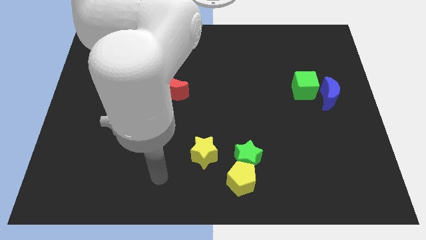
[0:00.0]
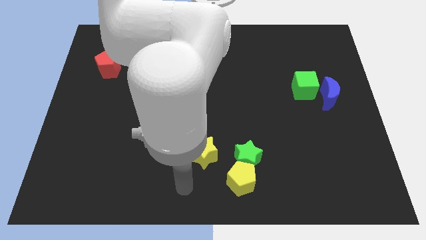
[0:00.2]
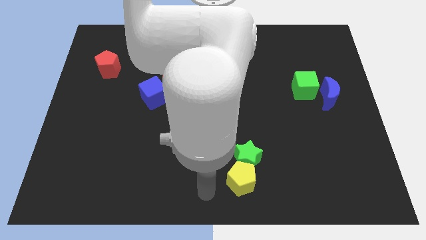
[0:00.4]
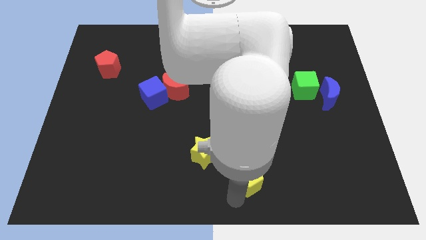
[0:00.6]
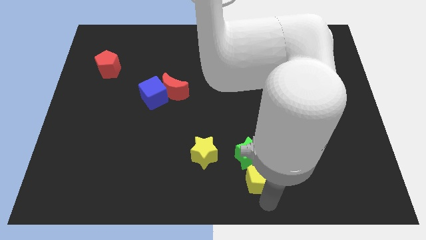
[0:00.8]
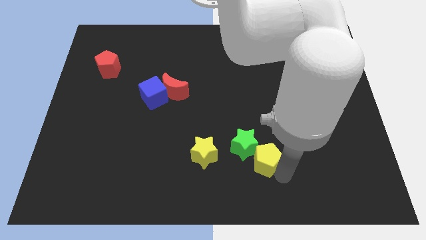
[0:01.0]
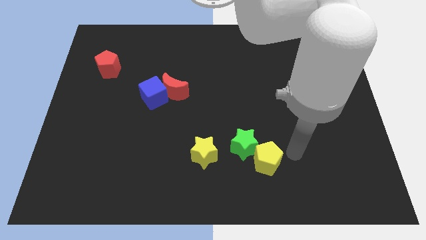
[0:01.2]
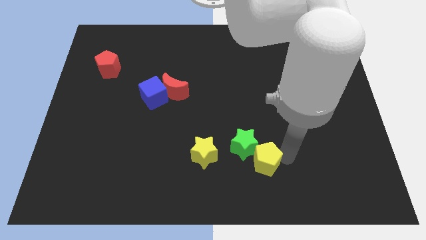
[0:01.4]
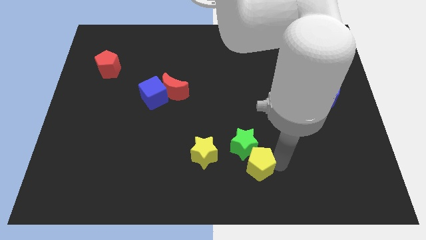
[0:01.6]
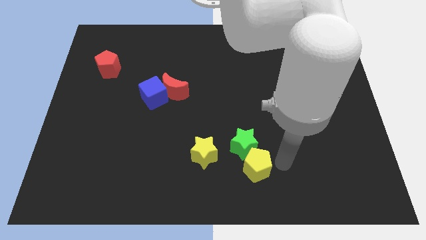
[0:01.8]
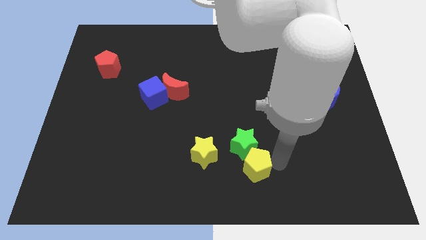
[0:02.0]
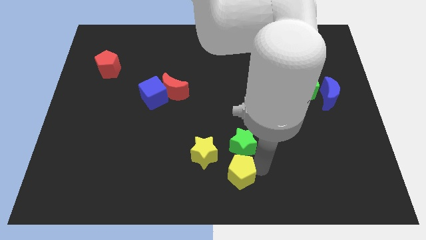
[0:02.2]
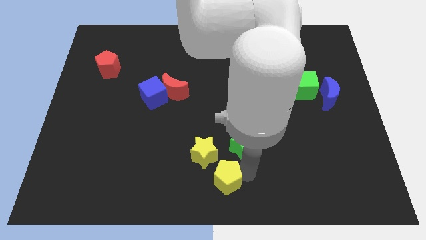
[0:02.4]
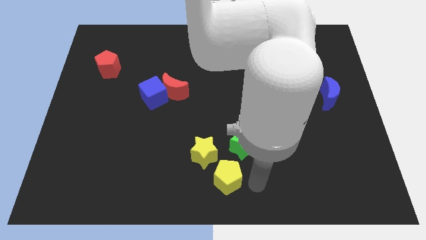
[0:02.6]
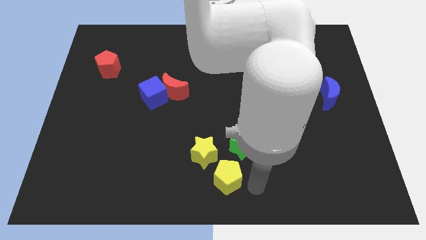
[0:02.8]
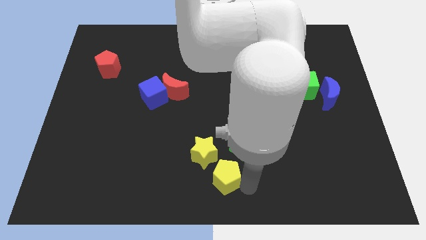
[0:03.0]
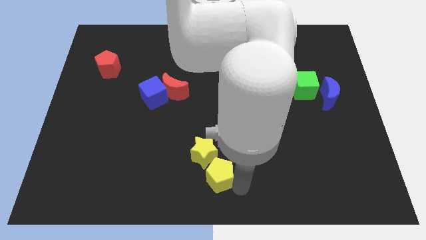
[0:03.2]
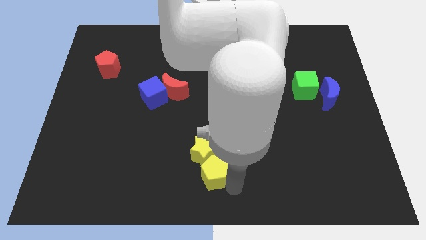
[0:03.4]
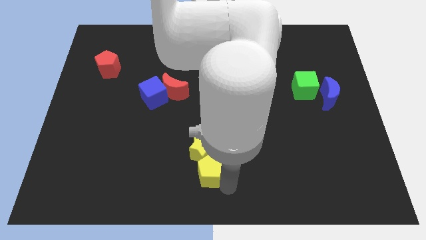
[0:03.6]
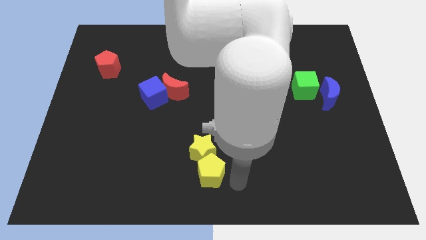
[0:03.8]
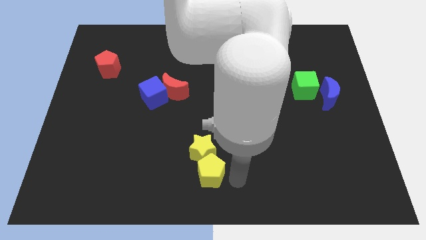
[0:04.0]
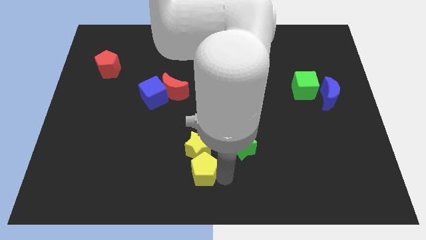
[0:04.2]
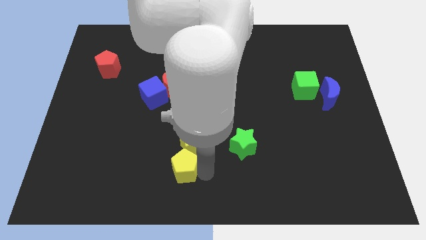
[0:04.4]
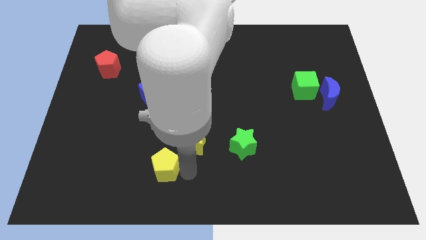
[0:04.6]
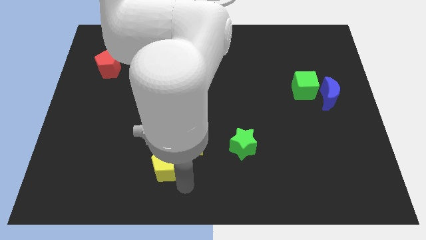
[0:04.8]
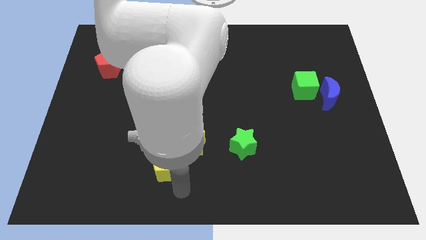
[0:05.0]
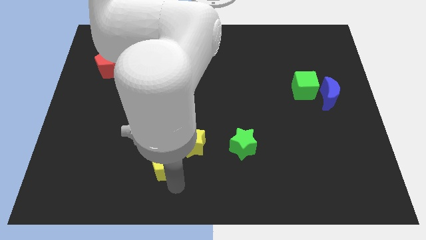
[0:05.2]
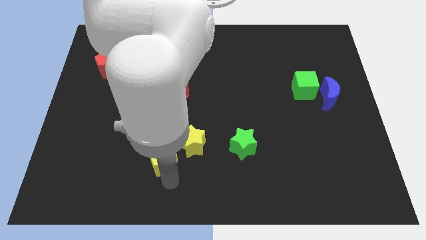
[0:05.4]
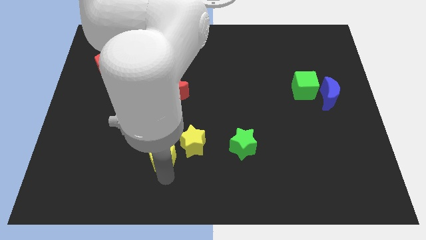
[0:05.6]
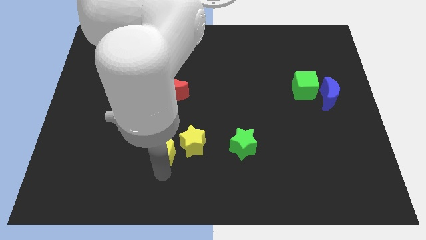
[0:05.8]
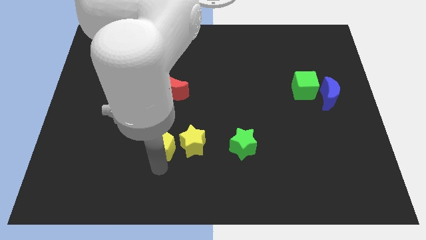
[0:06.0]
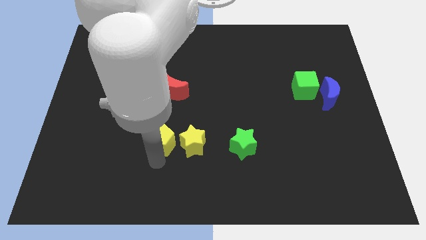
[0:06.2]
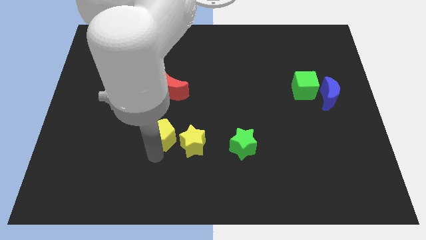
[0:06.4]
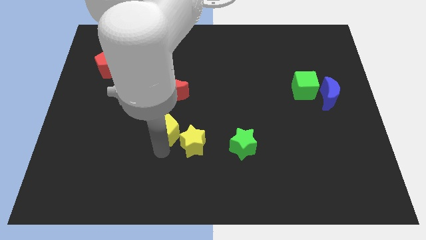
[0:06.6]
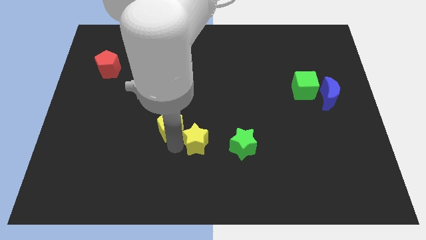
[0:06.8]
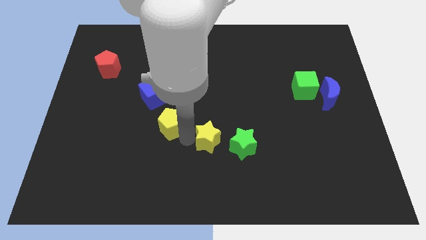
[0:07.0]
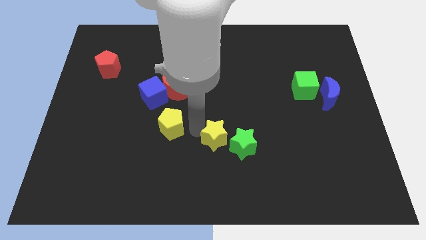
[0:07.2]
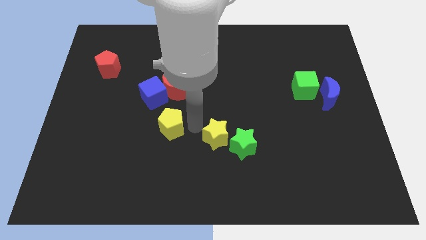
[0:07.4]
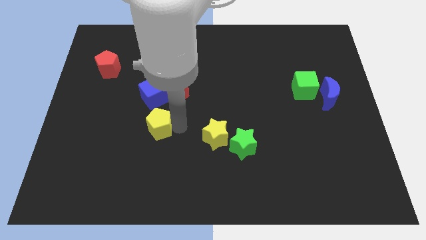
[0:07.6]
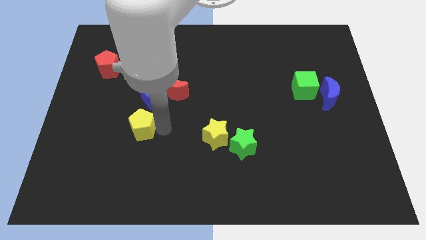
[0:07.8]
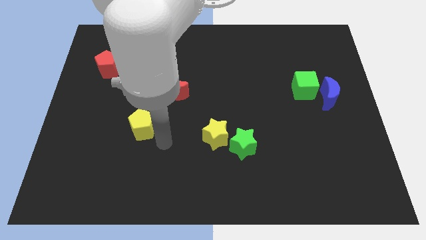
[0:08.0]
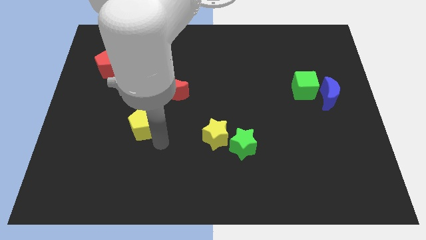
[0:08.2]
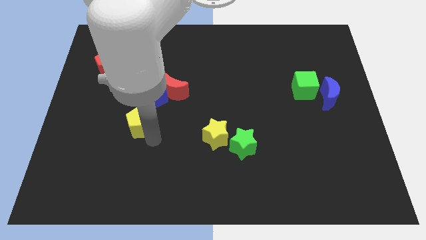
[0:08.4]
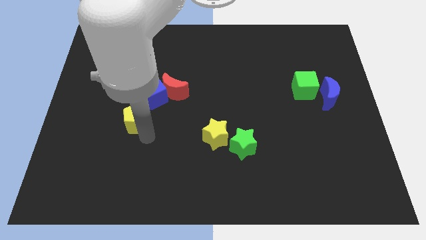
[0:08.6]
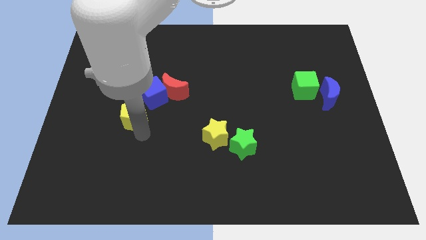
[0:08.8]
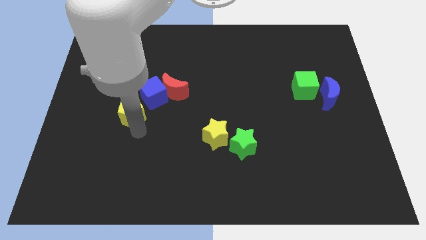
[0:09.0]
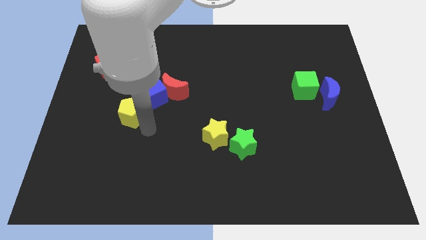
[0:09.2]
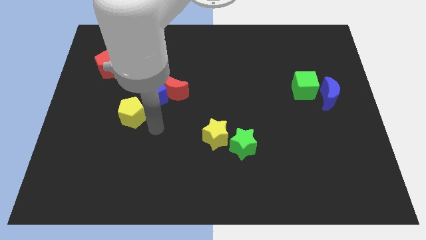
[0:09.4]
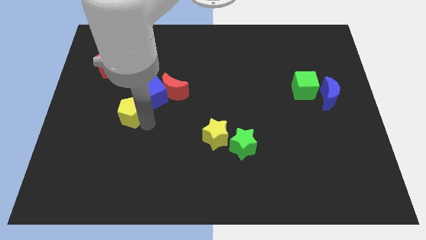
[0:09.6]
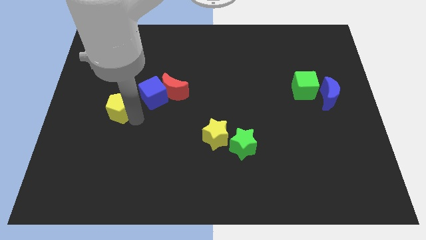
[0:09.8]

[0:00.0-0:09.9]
move the yellow pentagon to the left side of the blue cube

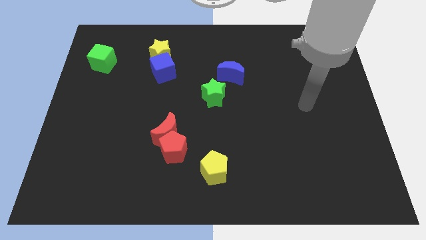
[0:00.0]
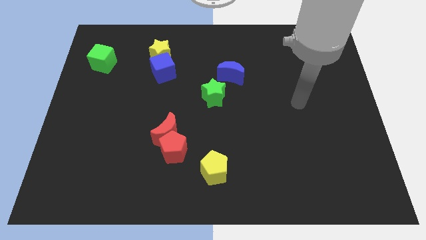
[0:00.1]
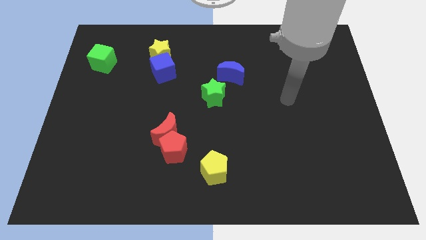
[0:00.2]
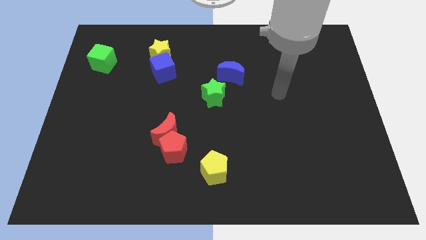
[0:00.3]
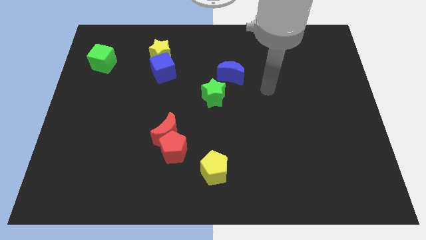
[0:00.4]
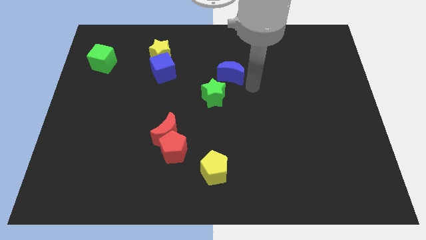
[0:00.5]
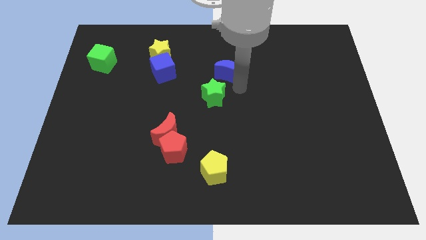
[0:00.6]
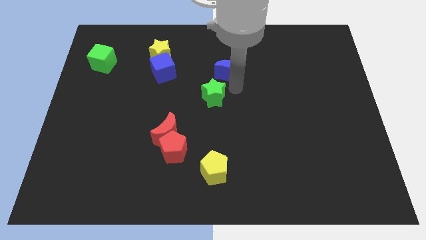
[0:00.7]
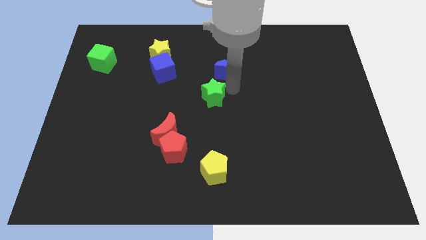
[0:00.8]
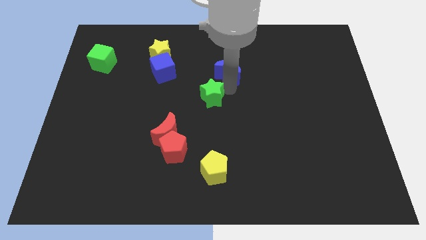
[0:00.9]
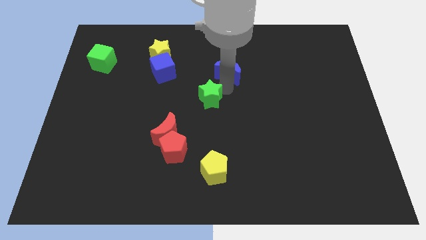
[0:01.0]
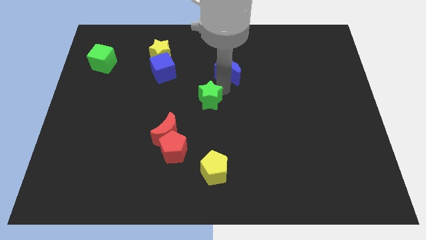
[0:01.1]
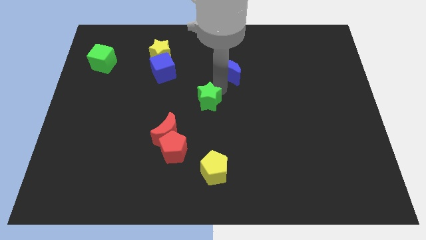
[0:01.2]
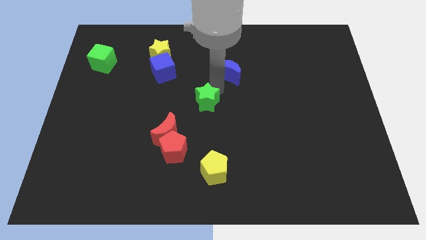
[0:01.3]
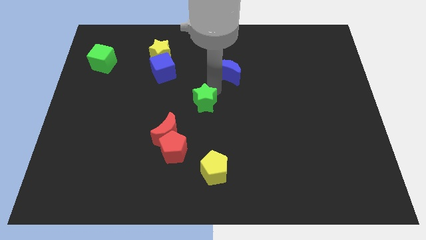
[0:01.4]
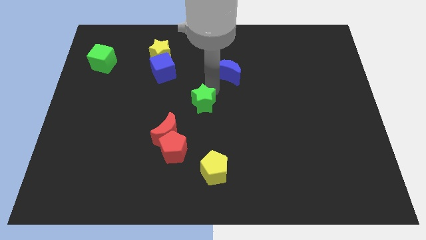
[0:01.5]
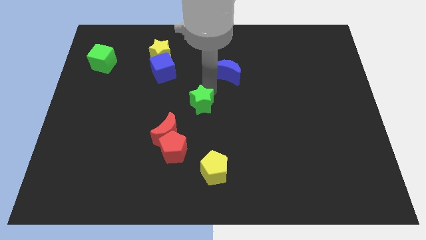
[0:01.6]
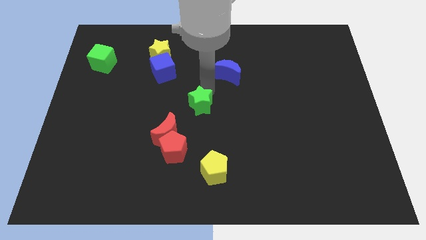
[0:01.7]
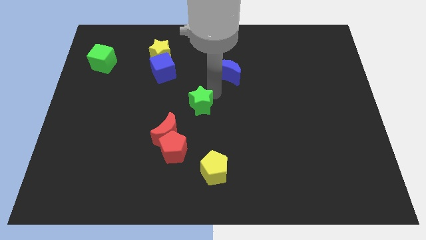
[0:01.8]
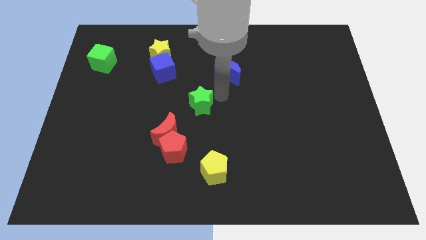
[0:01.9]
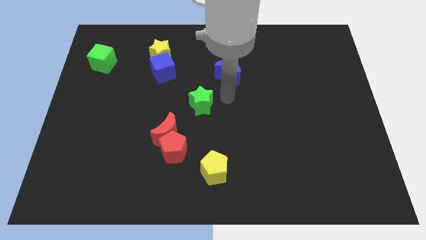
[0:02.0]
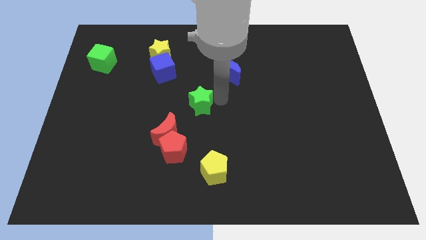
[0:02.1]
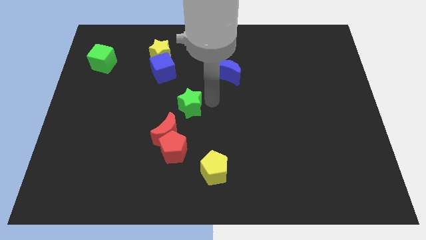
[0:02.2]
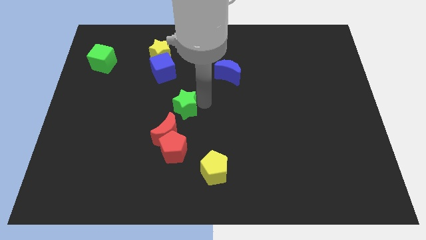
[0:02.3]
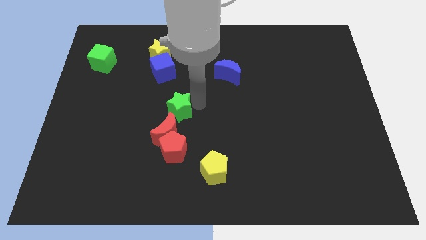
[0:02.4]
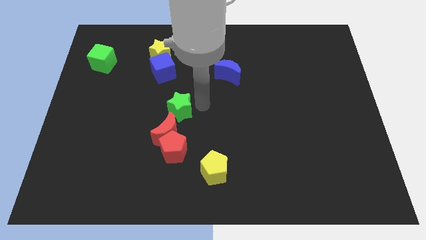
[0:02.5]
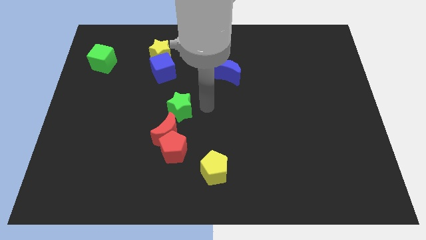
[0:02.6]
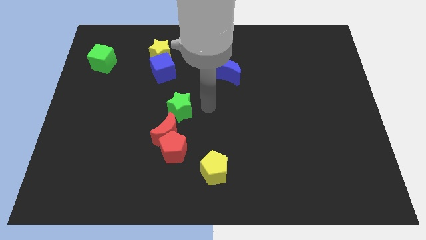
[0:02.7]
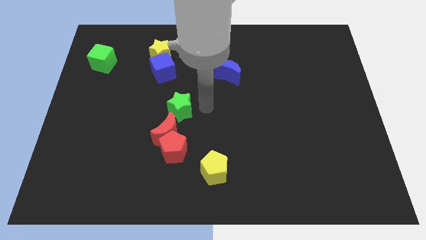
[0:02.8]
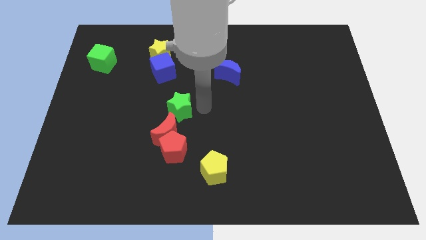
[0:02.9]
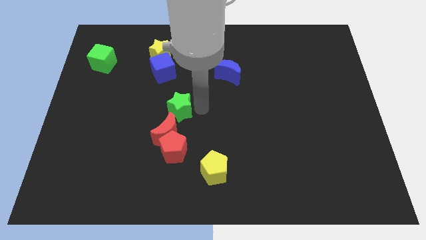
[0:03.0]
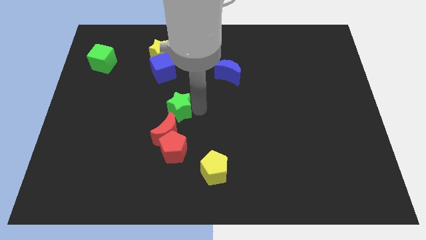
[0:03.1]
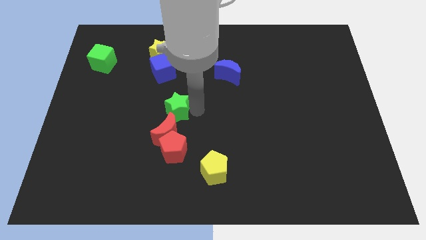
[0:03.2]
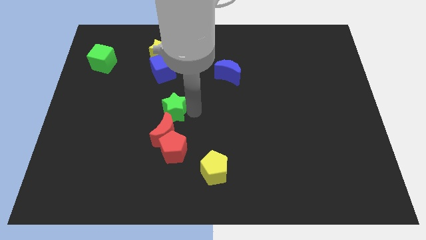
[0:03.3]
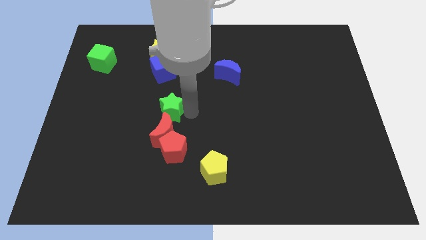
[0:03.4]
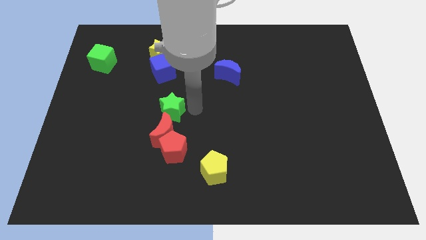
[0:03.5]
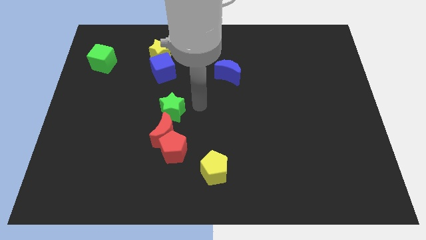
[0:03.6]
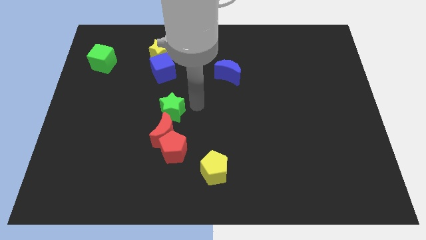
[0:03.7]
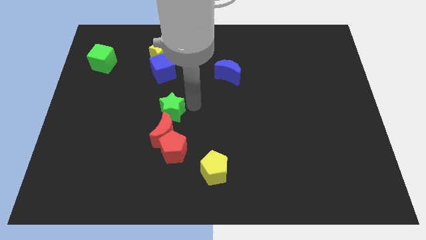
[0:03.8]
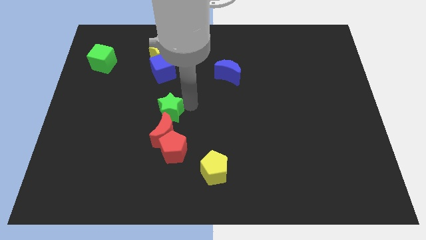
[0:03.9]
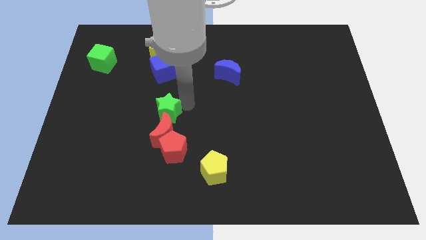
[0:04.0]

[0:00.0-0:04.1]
put the green star to the top left of the red moon
